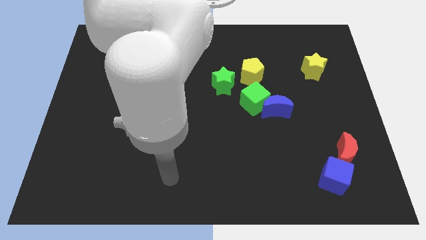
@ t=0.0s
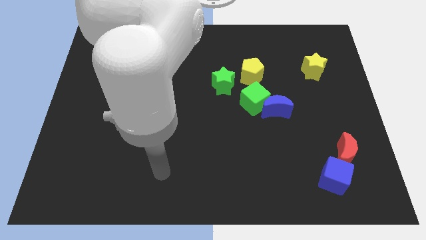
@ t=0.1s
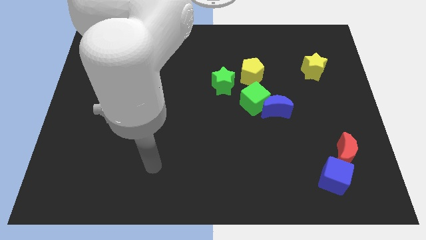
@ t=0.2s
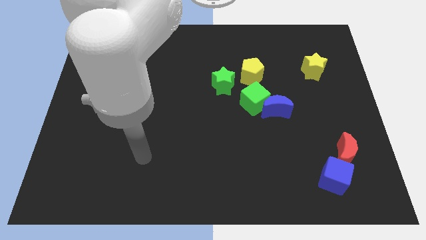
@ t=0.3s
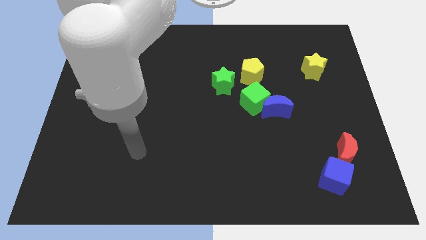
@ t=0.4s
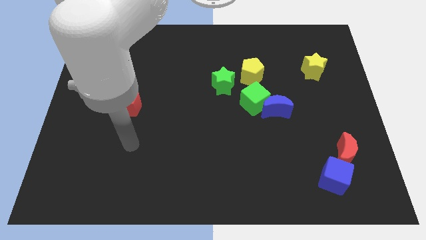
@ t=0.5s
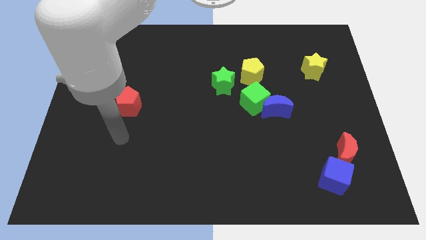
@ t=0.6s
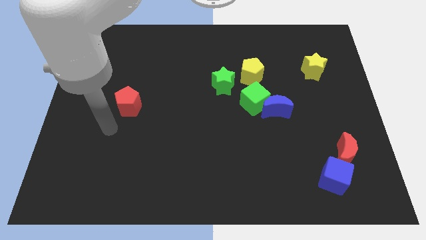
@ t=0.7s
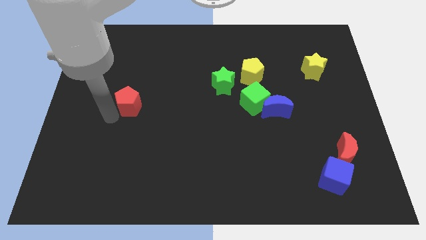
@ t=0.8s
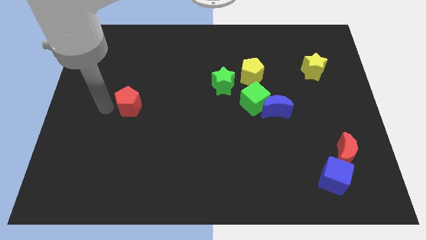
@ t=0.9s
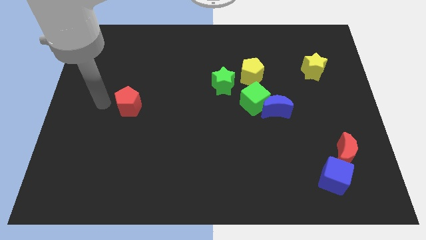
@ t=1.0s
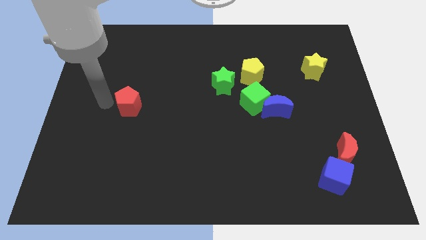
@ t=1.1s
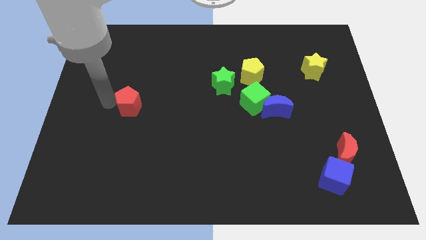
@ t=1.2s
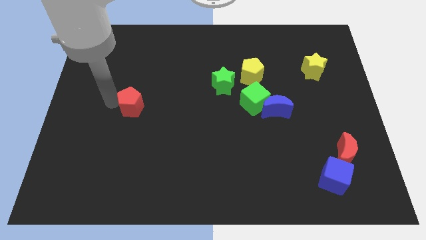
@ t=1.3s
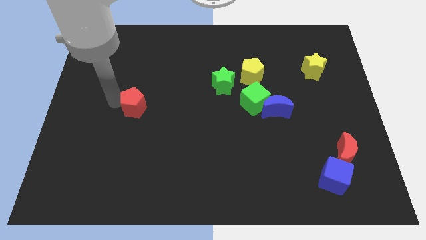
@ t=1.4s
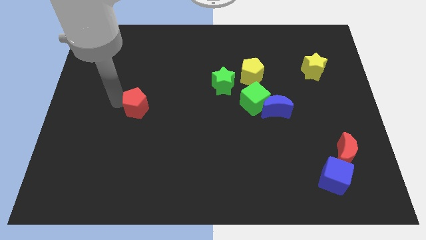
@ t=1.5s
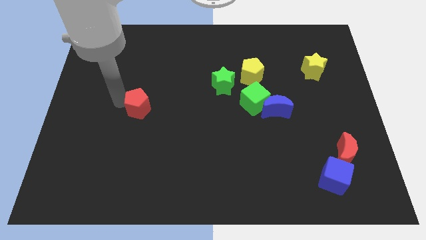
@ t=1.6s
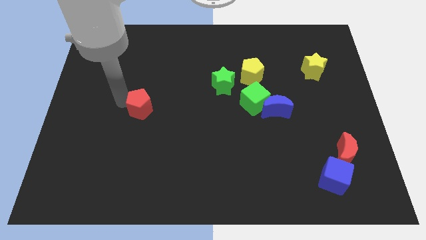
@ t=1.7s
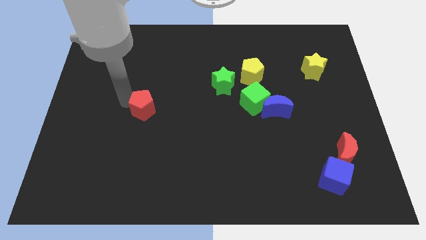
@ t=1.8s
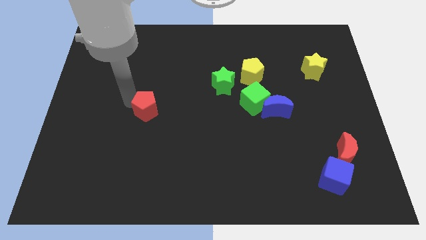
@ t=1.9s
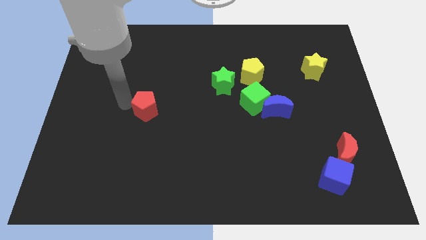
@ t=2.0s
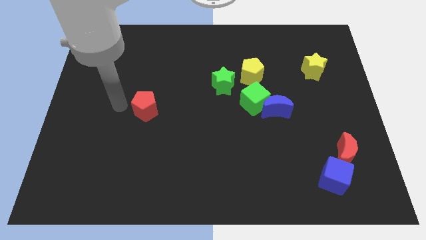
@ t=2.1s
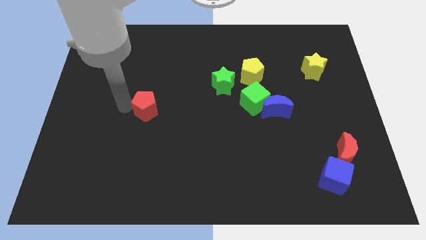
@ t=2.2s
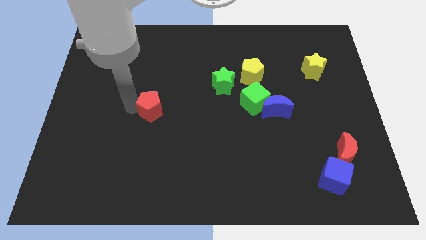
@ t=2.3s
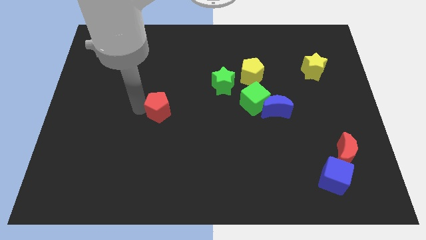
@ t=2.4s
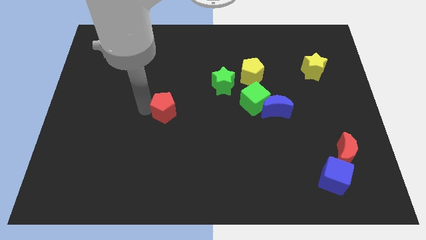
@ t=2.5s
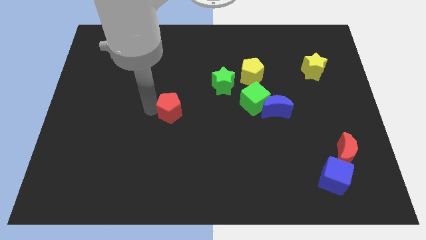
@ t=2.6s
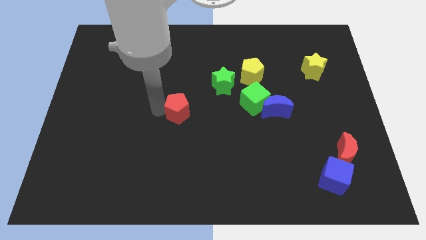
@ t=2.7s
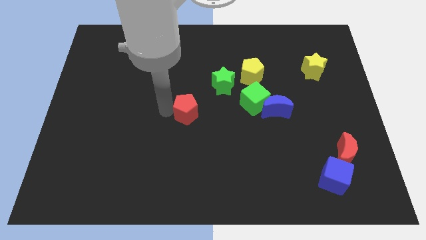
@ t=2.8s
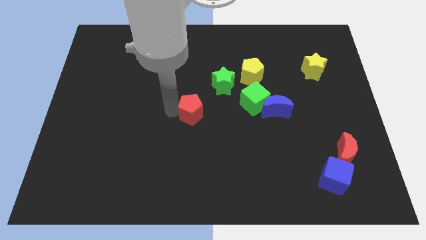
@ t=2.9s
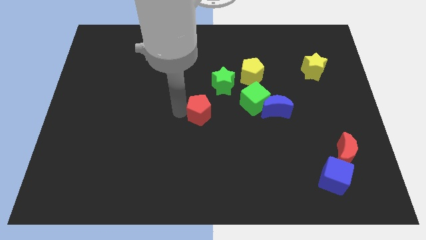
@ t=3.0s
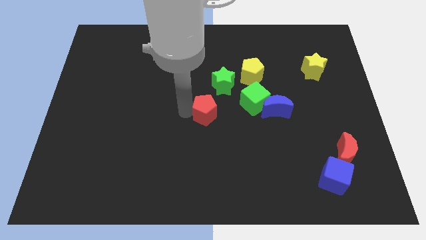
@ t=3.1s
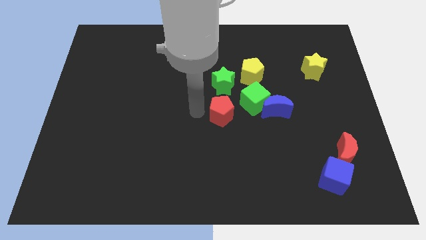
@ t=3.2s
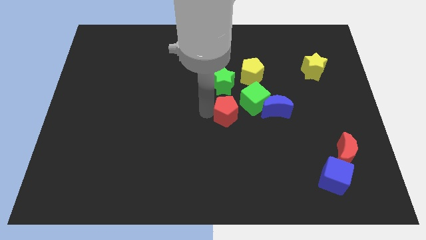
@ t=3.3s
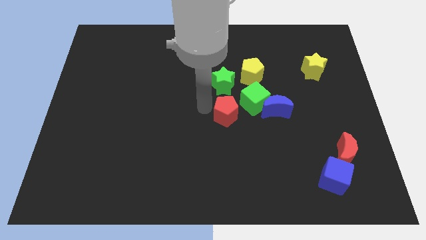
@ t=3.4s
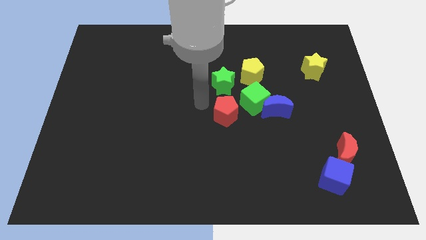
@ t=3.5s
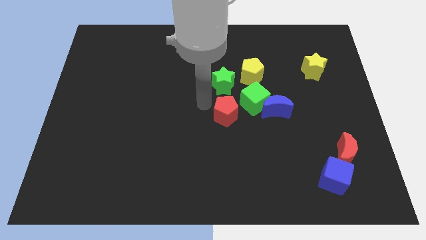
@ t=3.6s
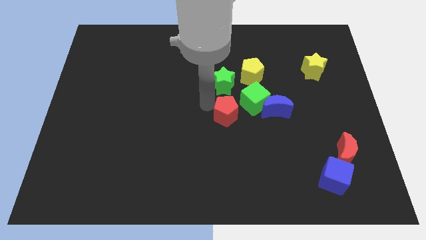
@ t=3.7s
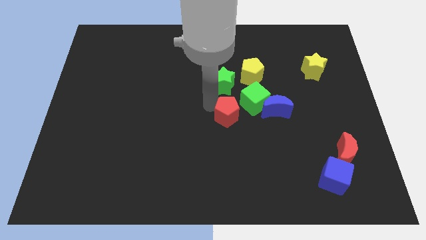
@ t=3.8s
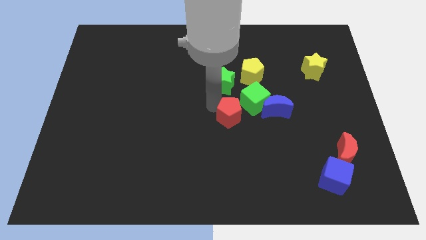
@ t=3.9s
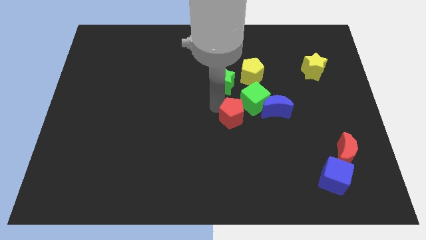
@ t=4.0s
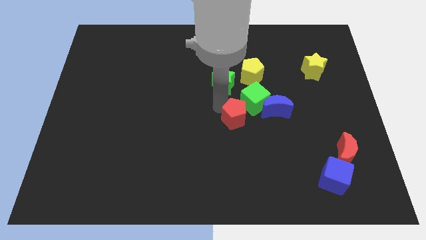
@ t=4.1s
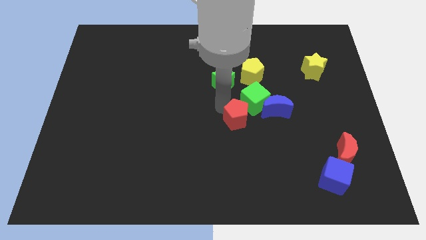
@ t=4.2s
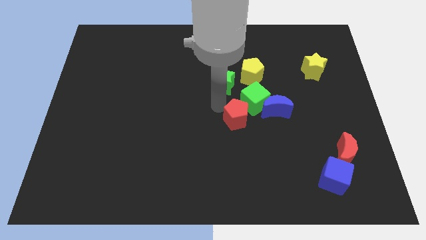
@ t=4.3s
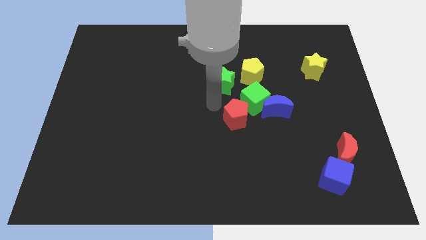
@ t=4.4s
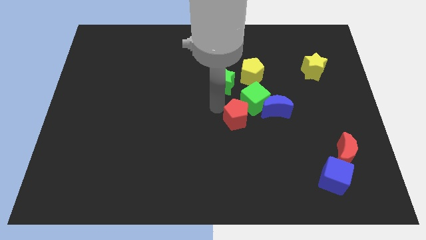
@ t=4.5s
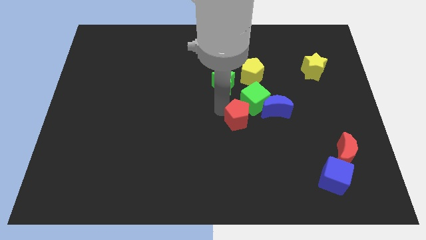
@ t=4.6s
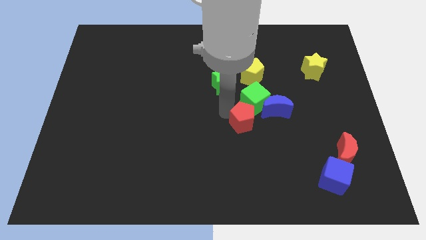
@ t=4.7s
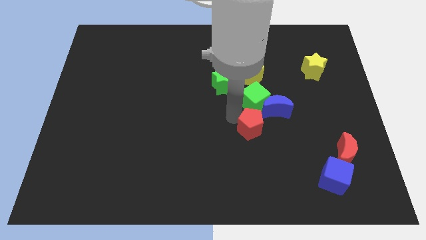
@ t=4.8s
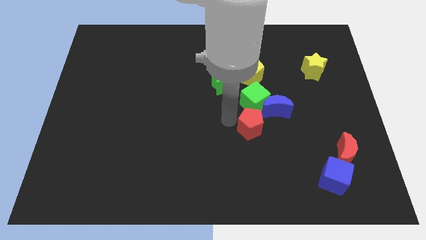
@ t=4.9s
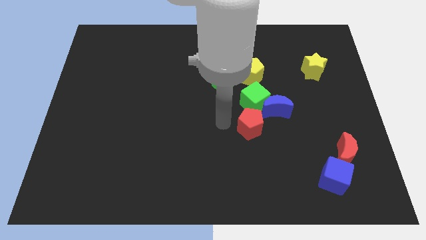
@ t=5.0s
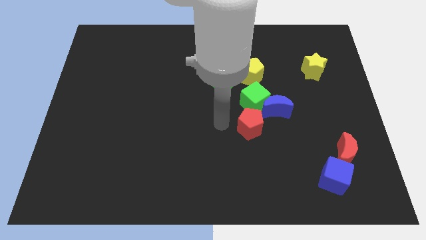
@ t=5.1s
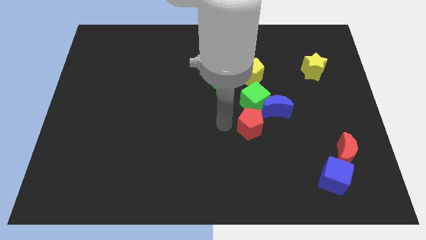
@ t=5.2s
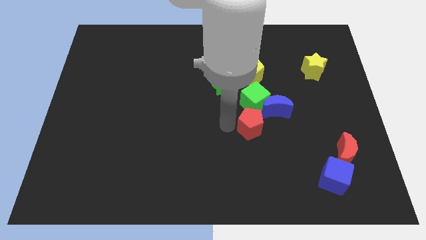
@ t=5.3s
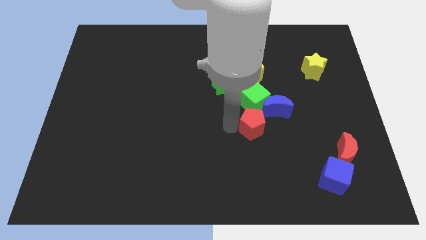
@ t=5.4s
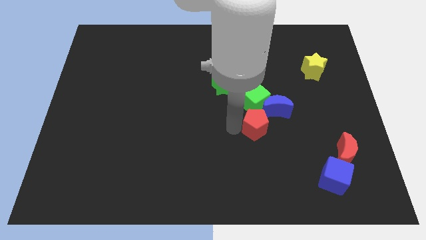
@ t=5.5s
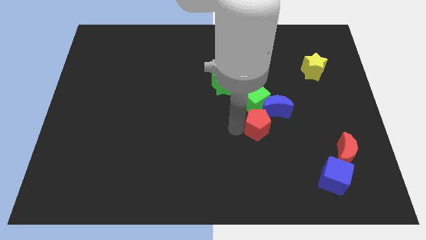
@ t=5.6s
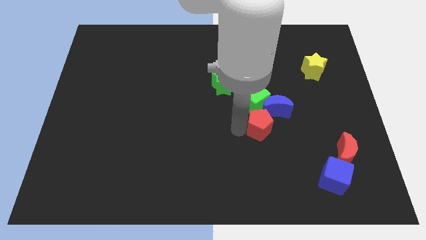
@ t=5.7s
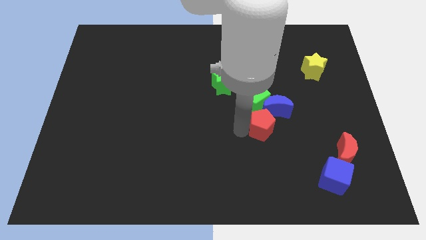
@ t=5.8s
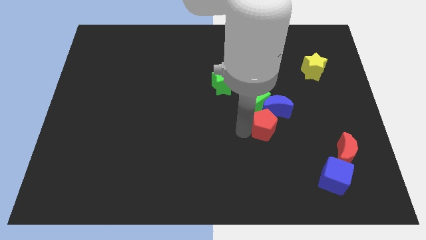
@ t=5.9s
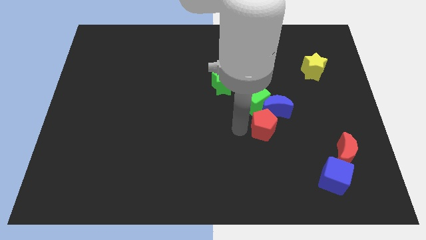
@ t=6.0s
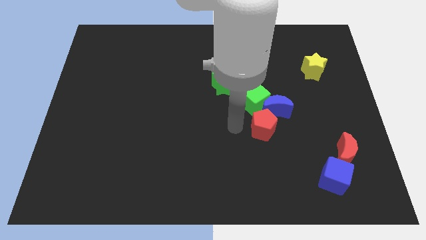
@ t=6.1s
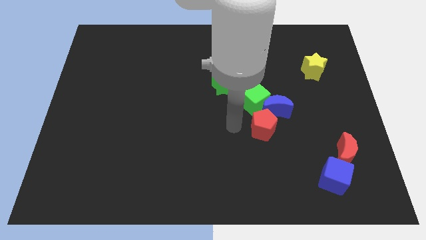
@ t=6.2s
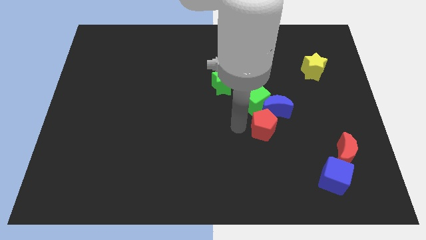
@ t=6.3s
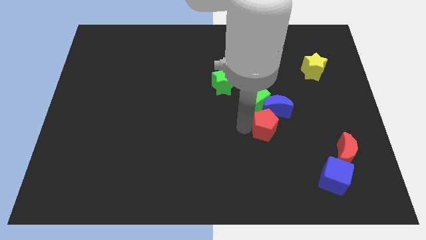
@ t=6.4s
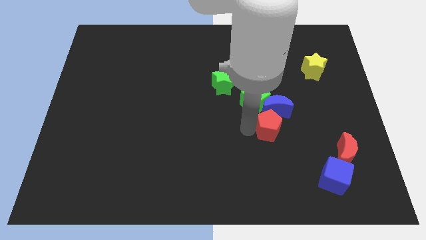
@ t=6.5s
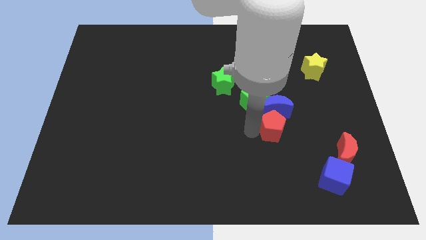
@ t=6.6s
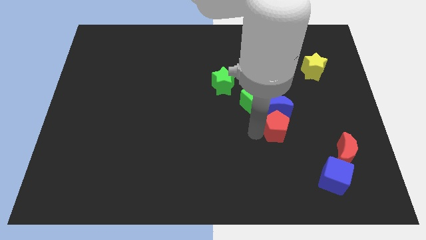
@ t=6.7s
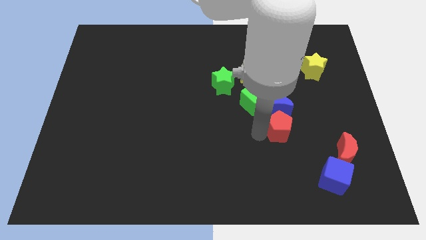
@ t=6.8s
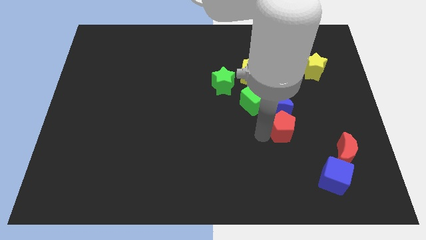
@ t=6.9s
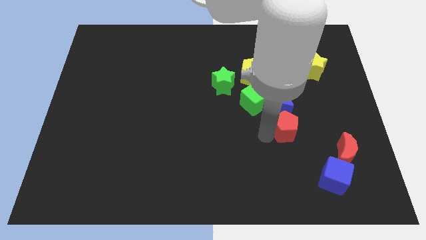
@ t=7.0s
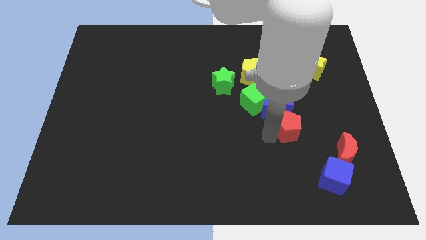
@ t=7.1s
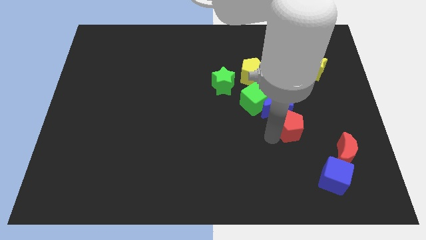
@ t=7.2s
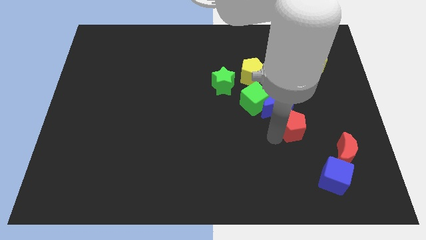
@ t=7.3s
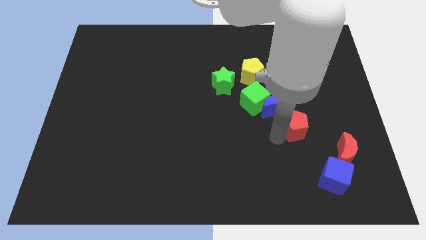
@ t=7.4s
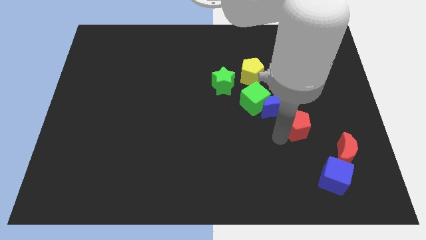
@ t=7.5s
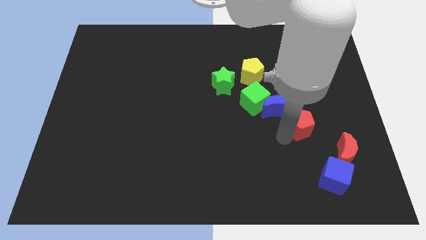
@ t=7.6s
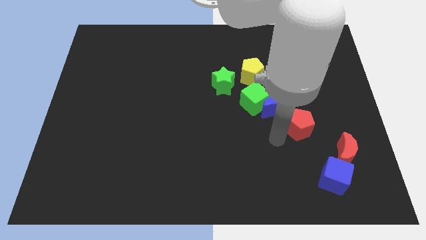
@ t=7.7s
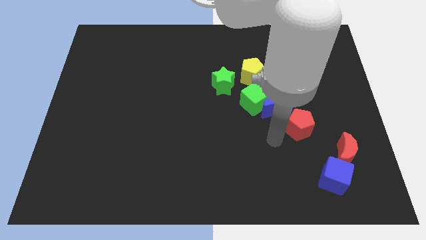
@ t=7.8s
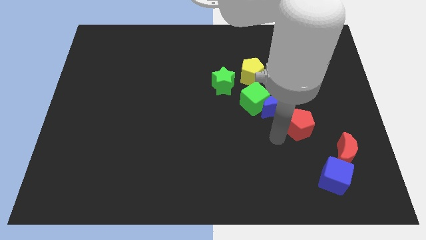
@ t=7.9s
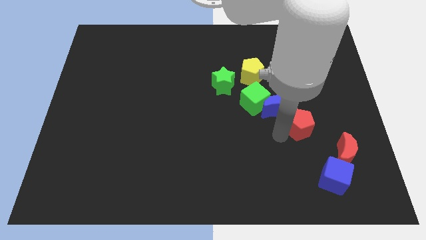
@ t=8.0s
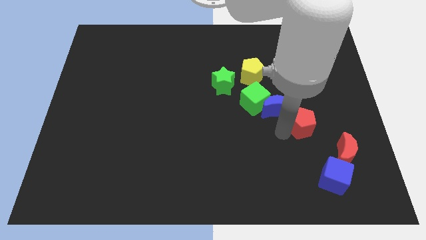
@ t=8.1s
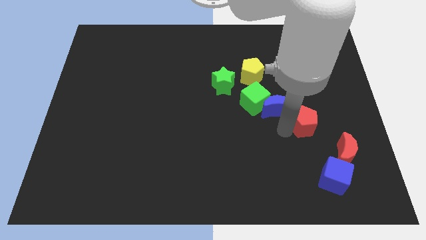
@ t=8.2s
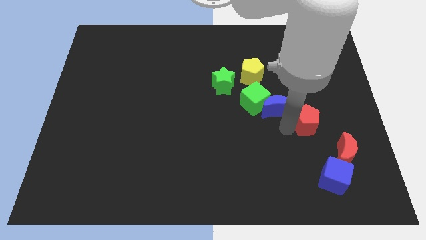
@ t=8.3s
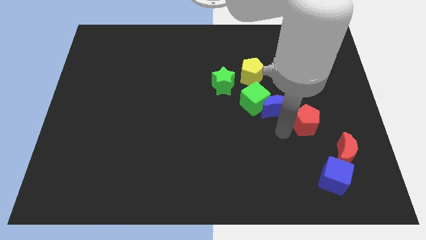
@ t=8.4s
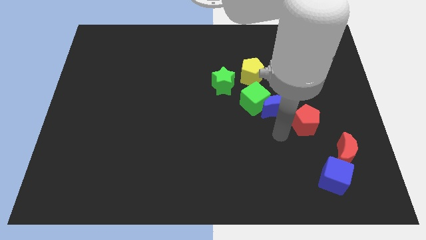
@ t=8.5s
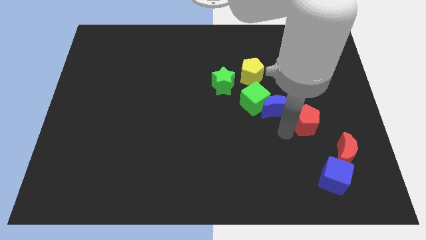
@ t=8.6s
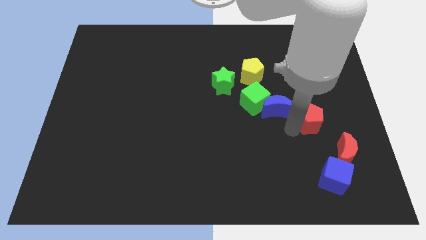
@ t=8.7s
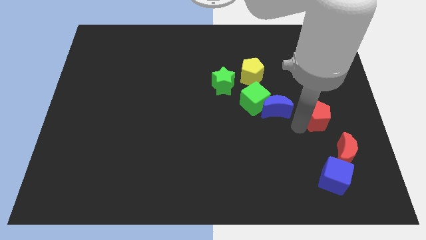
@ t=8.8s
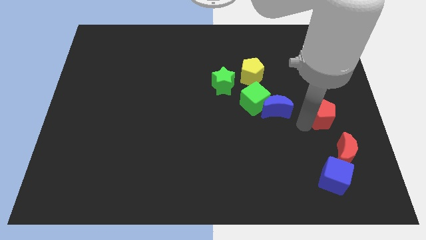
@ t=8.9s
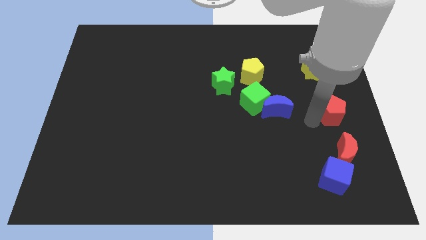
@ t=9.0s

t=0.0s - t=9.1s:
move the red pentagon to the right side of the board
